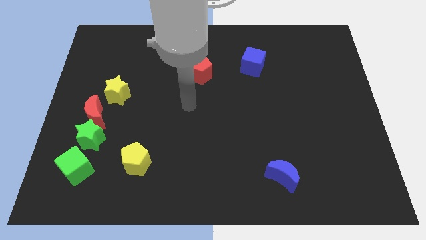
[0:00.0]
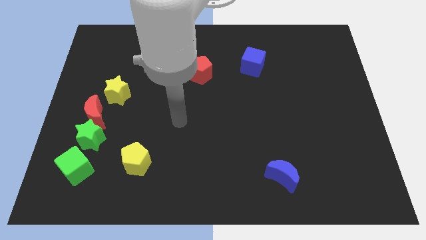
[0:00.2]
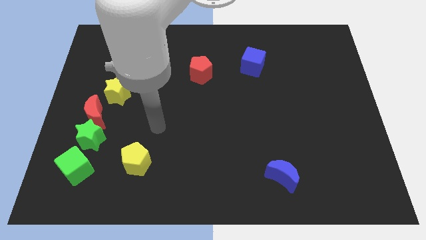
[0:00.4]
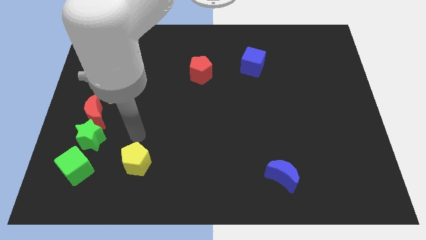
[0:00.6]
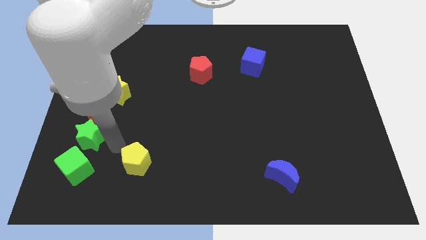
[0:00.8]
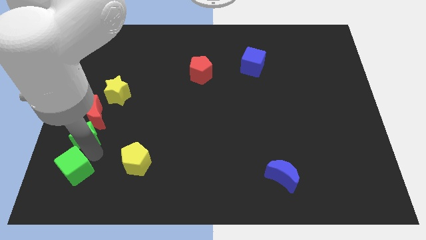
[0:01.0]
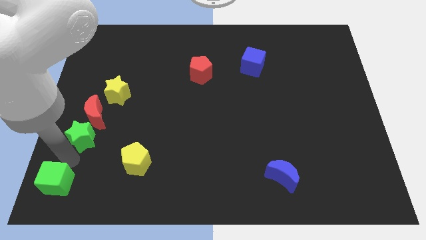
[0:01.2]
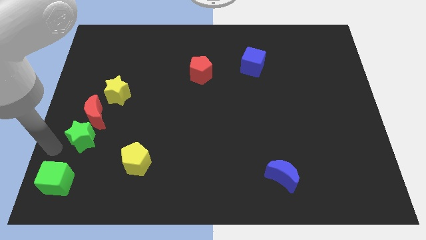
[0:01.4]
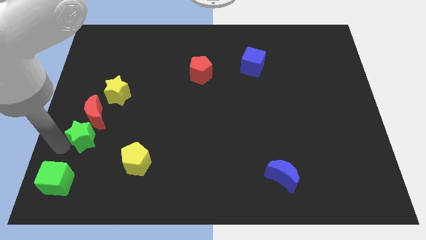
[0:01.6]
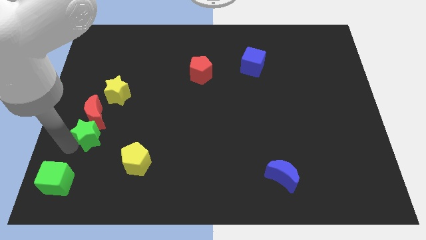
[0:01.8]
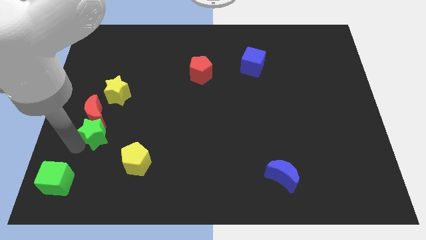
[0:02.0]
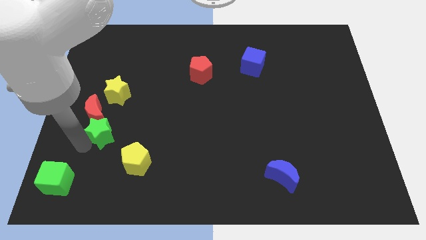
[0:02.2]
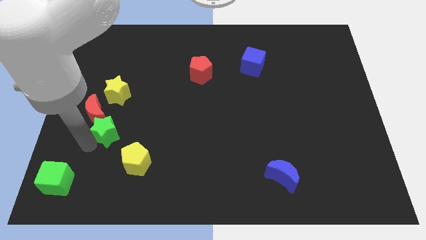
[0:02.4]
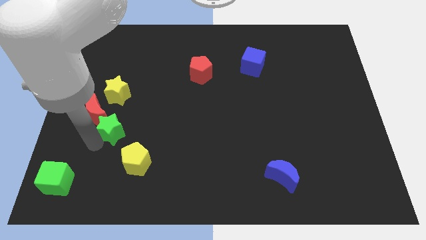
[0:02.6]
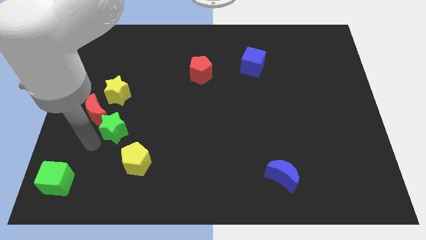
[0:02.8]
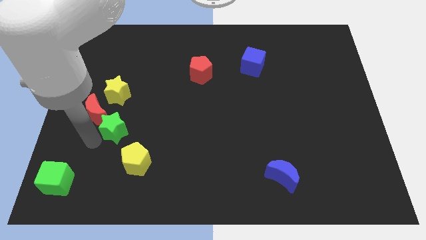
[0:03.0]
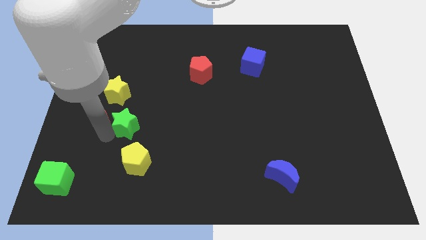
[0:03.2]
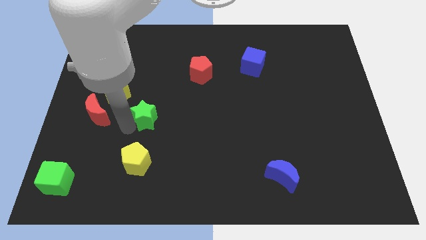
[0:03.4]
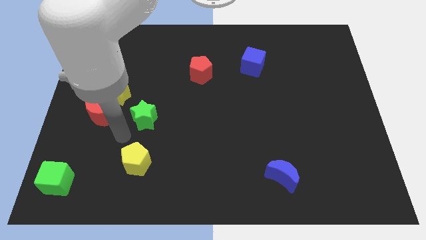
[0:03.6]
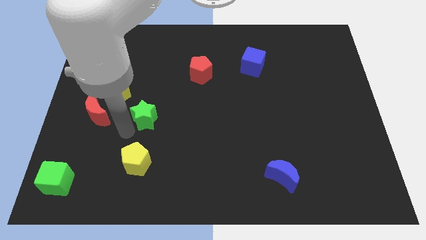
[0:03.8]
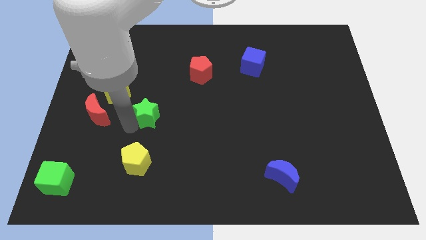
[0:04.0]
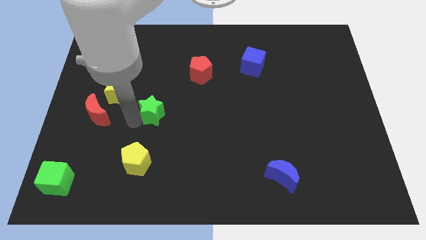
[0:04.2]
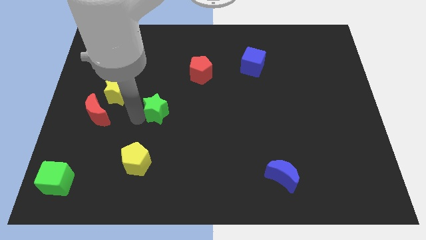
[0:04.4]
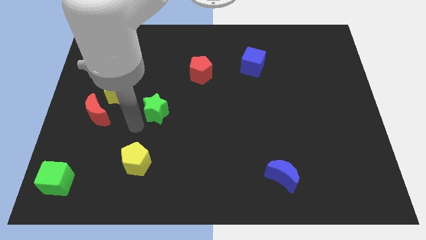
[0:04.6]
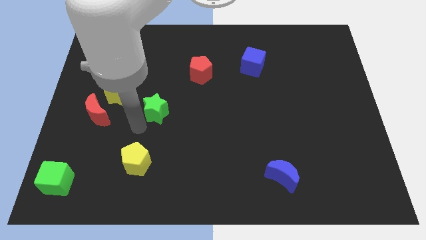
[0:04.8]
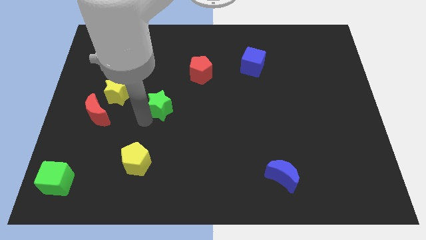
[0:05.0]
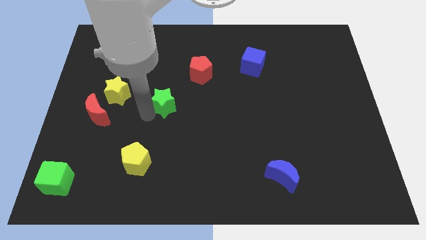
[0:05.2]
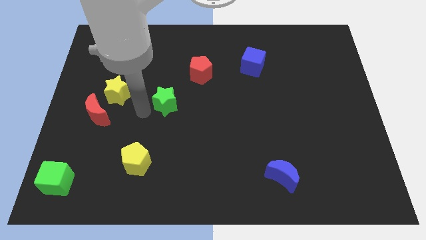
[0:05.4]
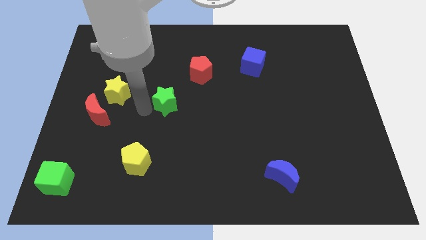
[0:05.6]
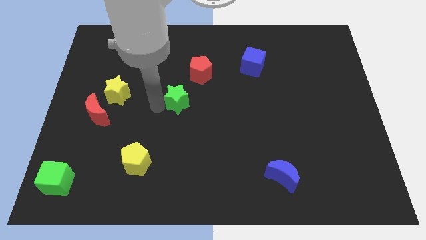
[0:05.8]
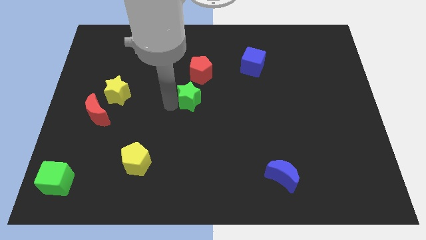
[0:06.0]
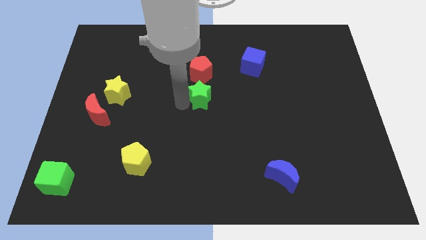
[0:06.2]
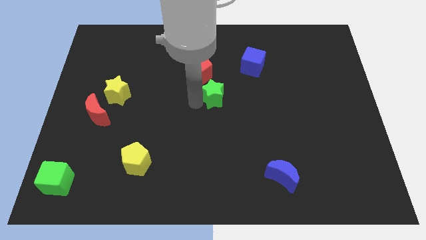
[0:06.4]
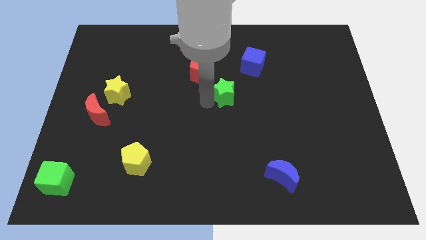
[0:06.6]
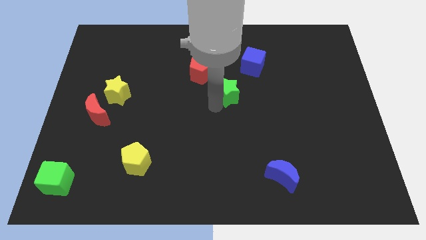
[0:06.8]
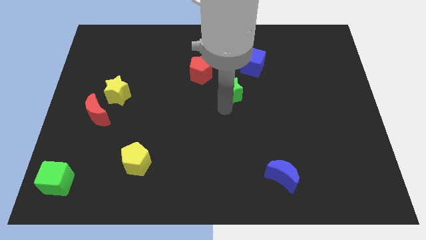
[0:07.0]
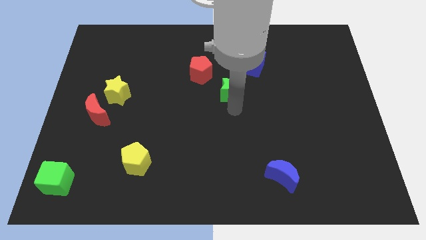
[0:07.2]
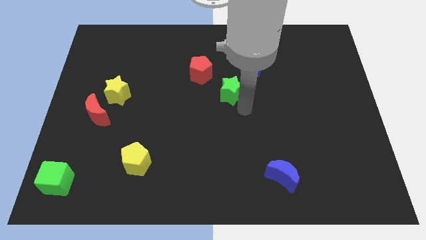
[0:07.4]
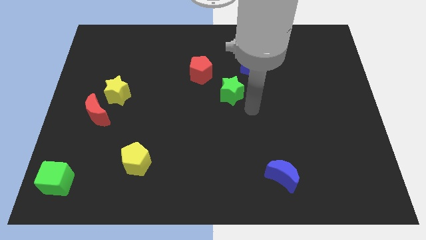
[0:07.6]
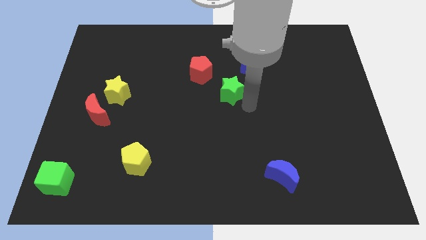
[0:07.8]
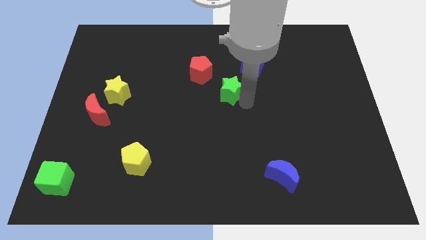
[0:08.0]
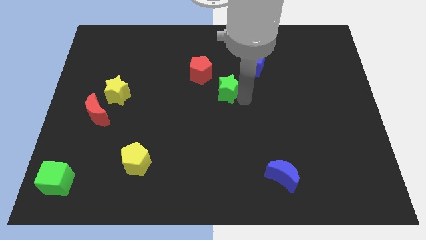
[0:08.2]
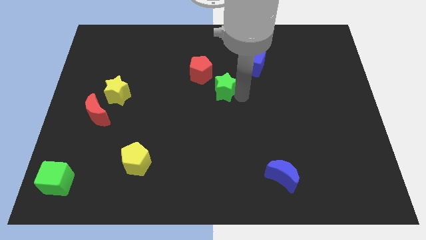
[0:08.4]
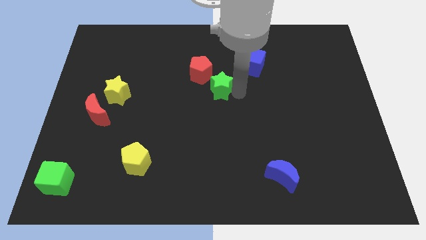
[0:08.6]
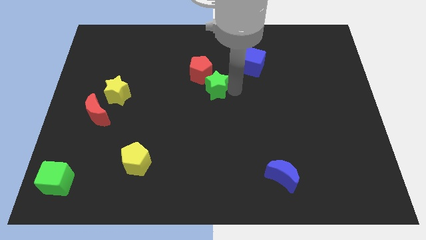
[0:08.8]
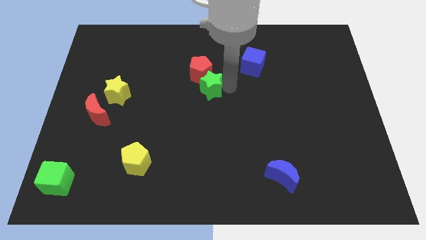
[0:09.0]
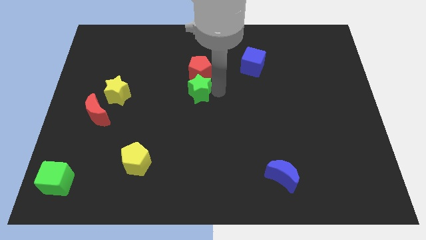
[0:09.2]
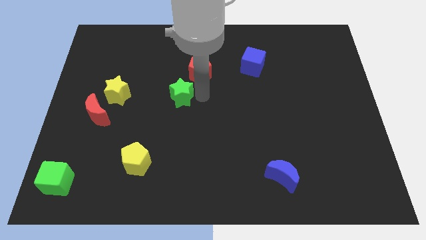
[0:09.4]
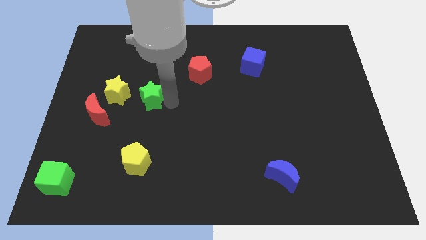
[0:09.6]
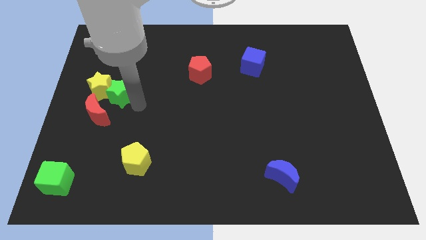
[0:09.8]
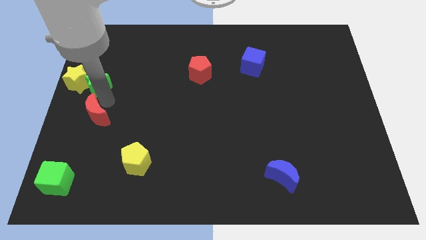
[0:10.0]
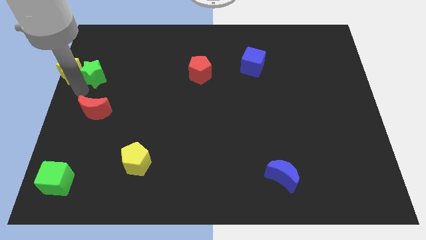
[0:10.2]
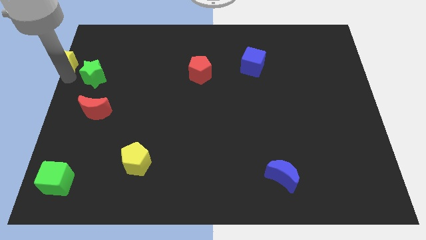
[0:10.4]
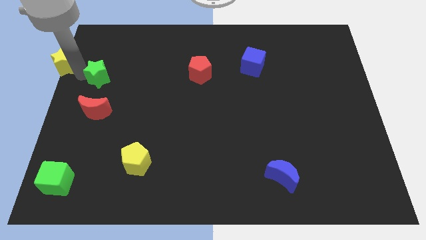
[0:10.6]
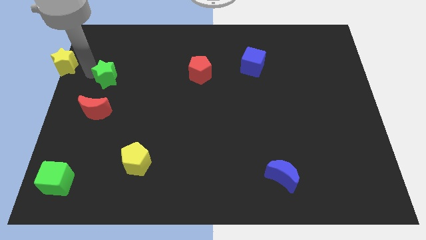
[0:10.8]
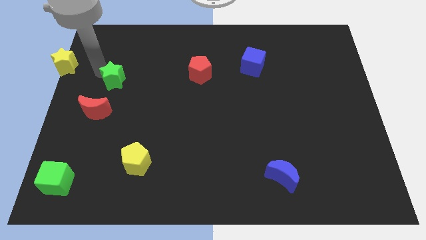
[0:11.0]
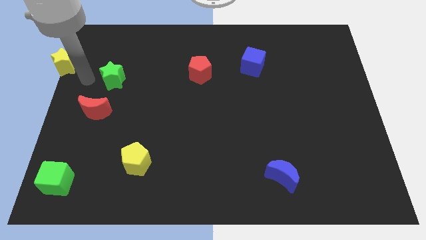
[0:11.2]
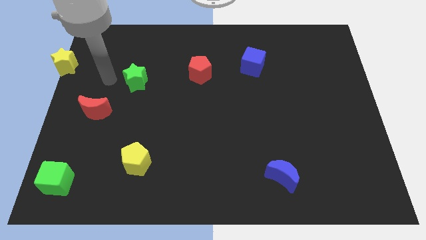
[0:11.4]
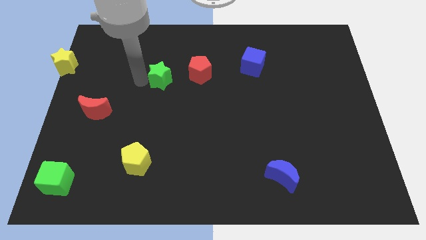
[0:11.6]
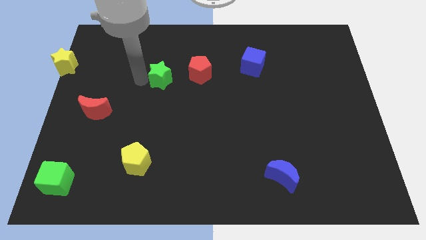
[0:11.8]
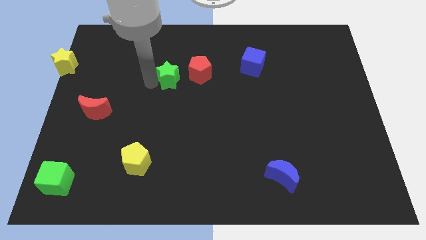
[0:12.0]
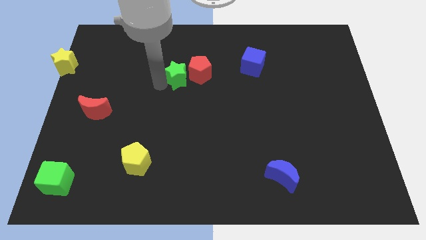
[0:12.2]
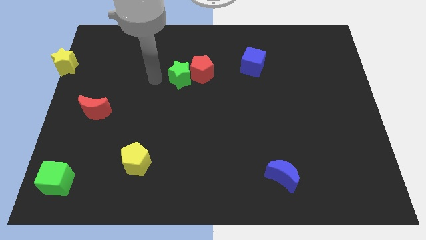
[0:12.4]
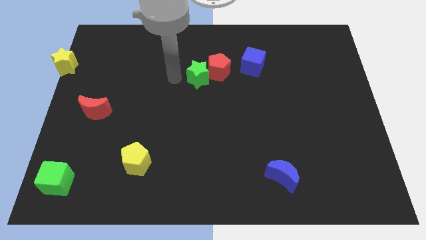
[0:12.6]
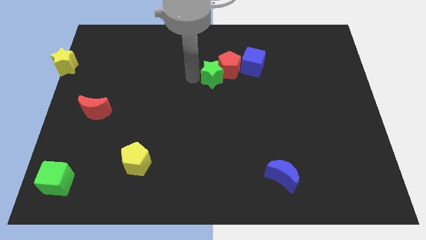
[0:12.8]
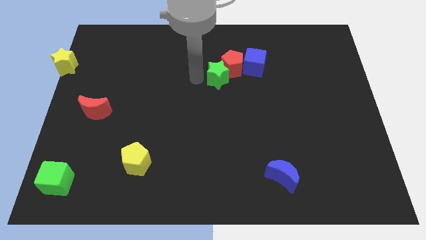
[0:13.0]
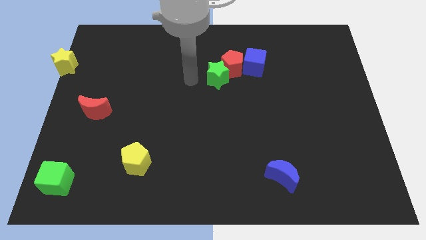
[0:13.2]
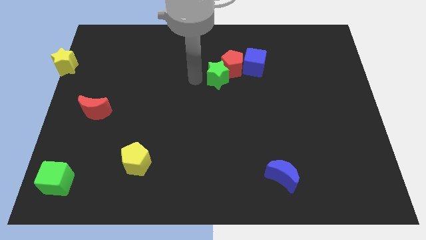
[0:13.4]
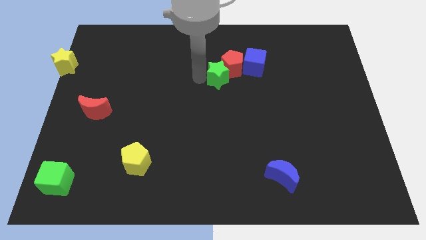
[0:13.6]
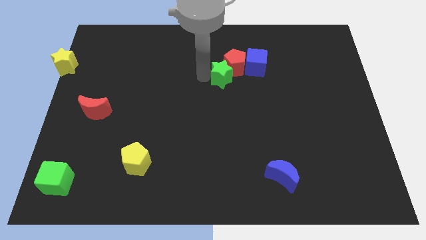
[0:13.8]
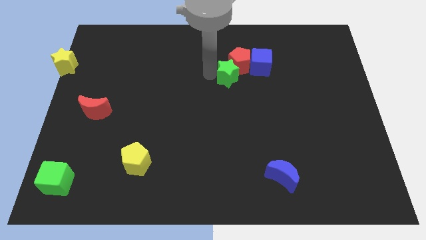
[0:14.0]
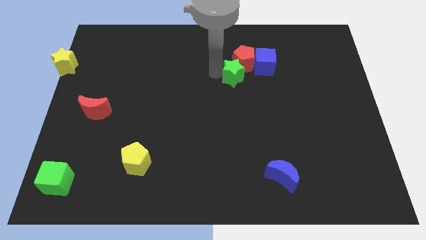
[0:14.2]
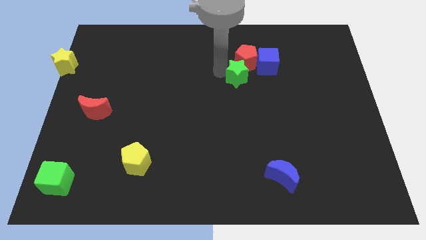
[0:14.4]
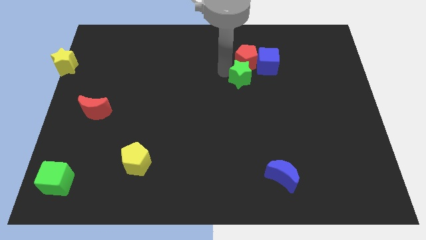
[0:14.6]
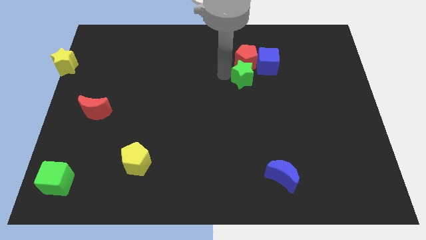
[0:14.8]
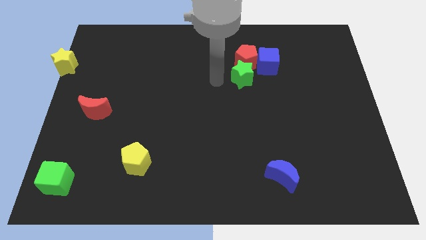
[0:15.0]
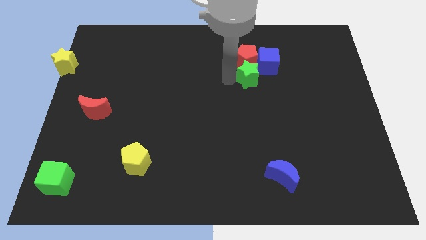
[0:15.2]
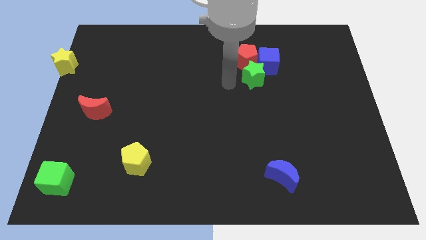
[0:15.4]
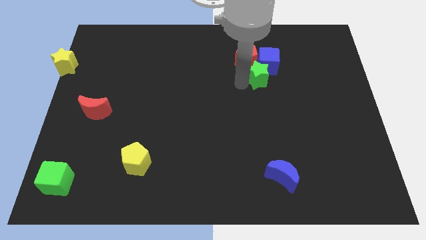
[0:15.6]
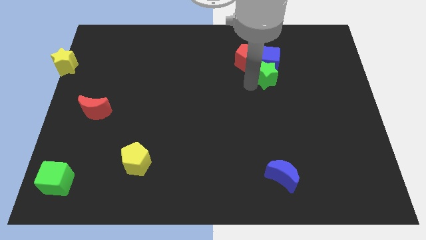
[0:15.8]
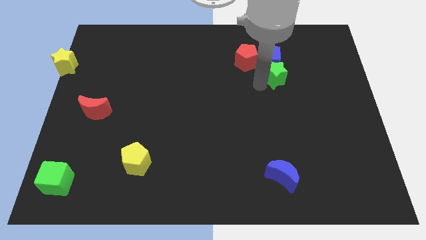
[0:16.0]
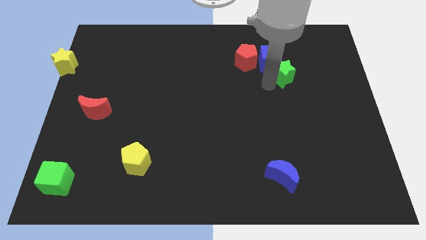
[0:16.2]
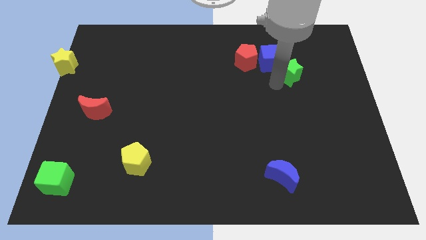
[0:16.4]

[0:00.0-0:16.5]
push the green star to the right side of the blue cube
